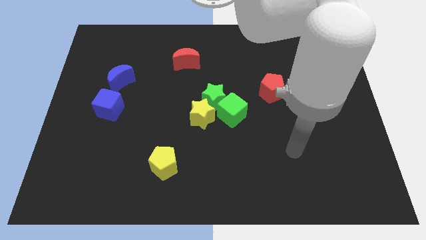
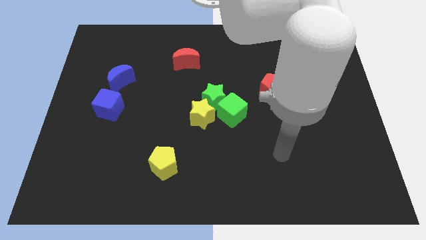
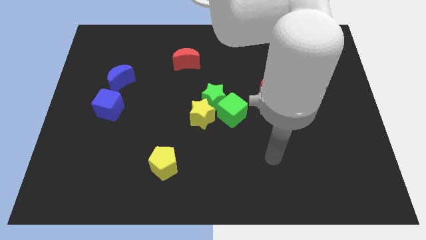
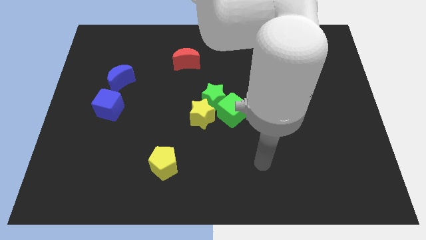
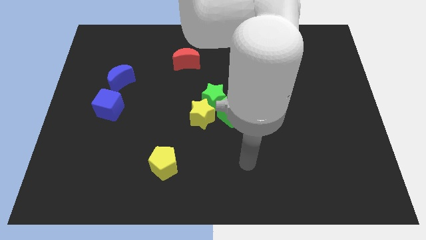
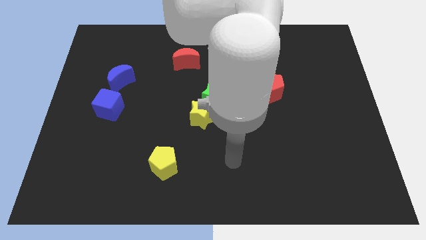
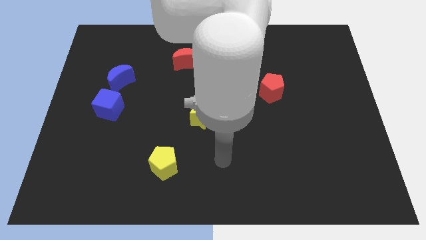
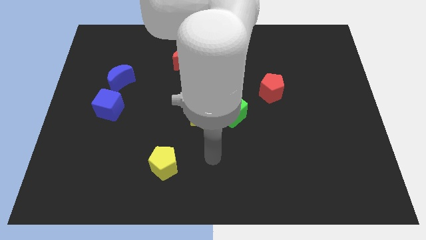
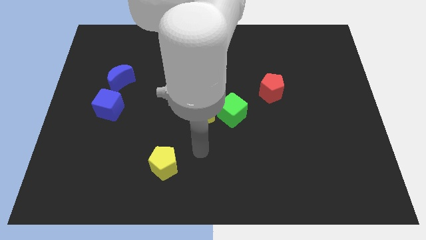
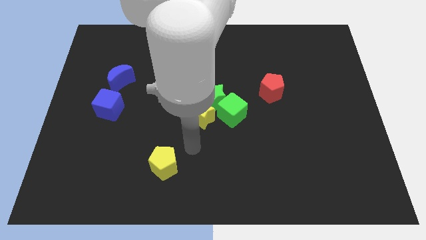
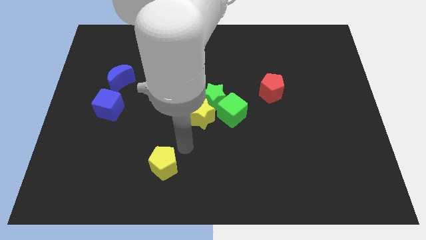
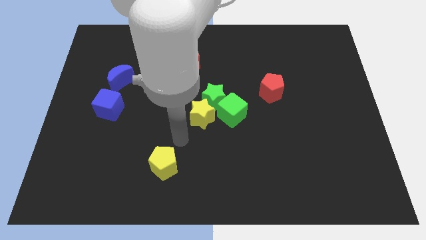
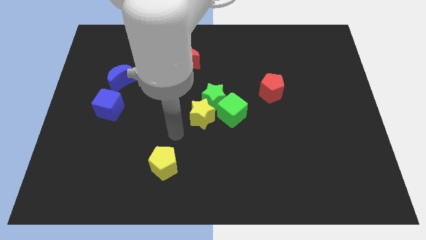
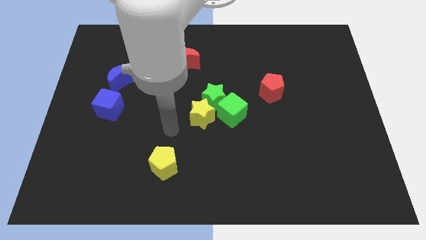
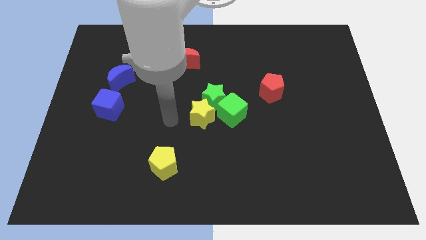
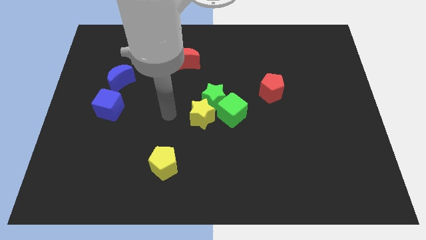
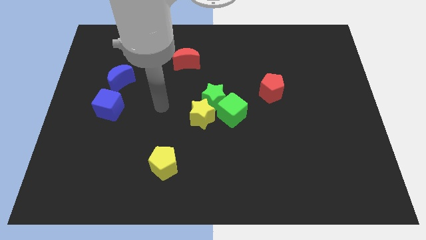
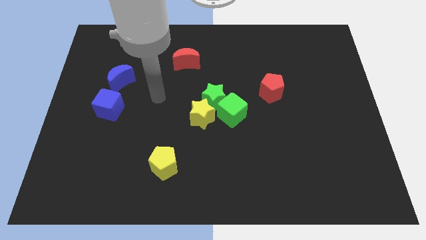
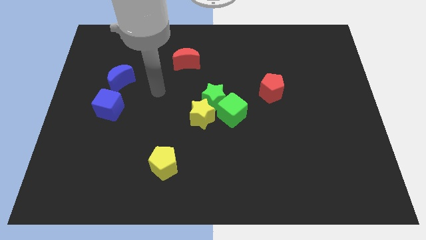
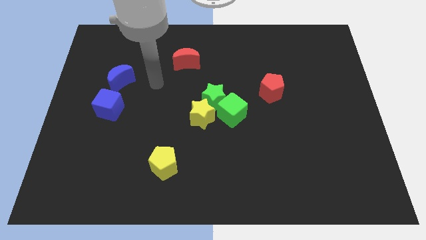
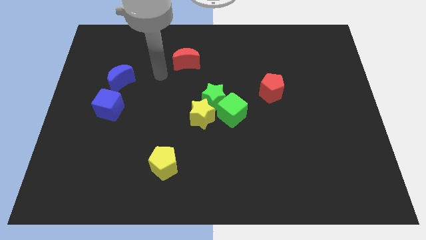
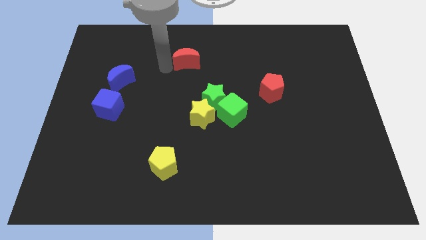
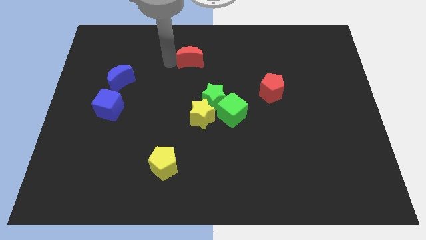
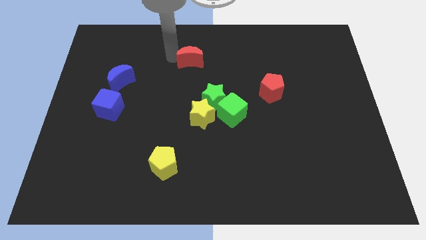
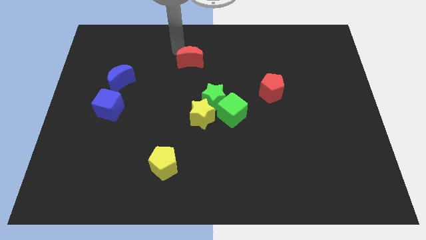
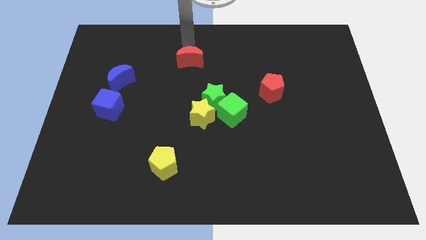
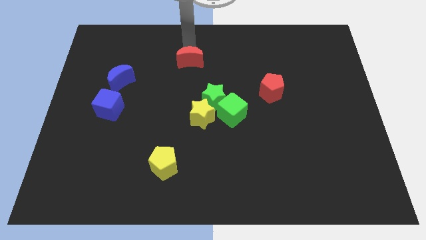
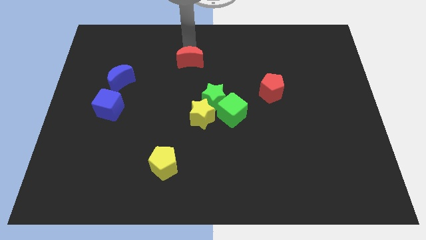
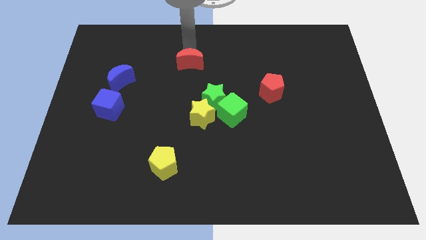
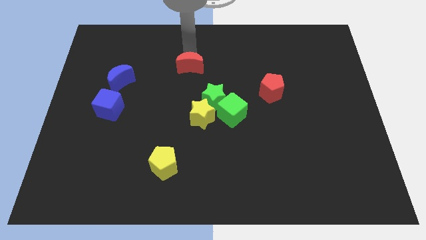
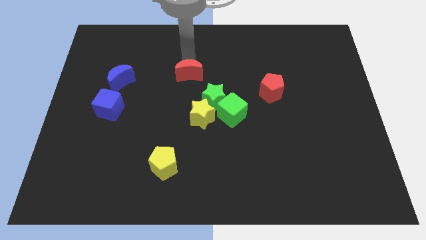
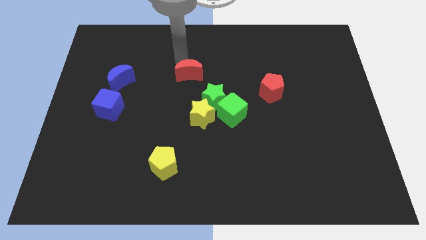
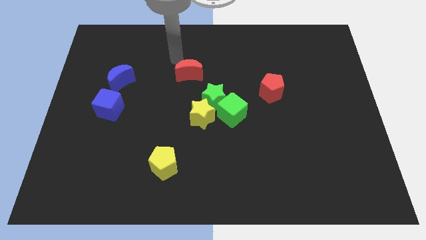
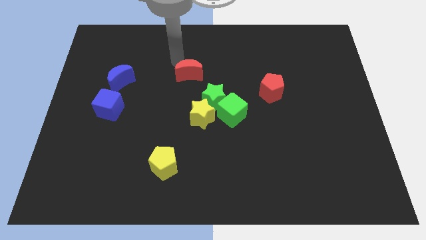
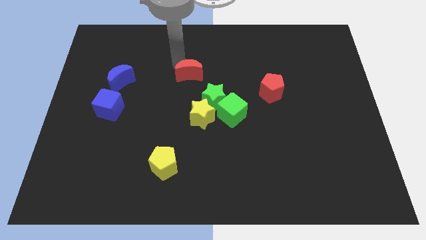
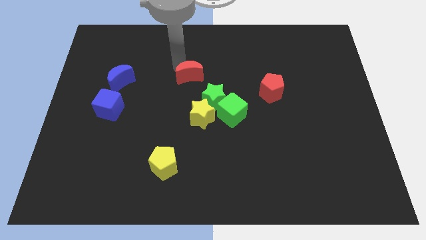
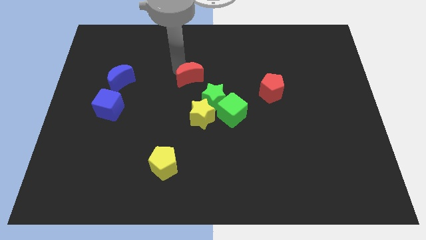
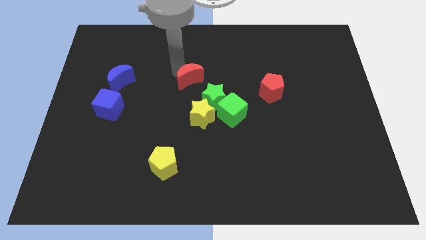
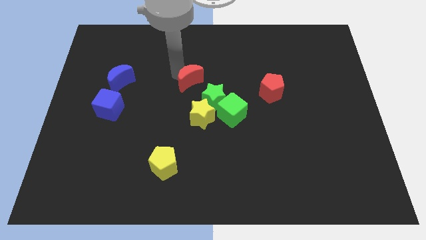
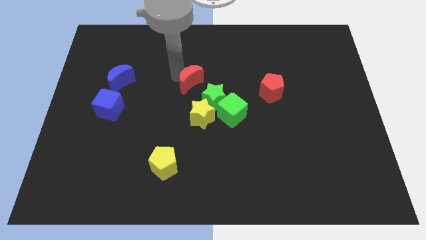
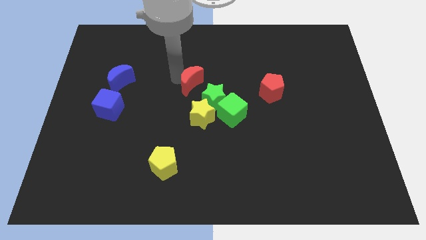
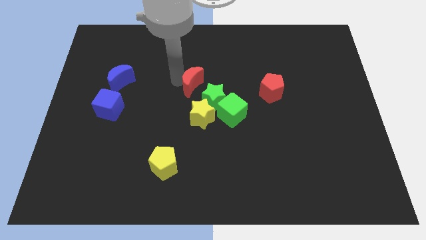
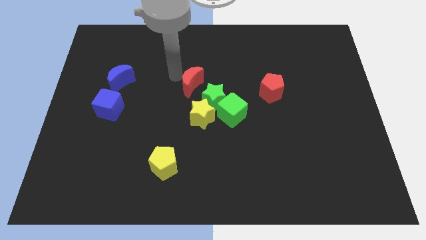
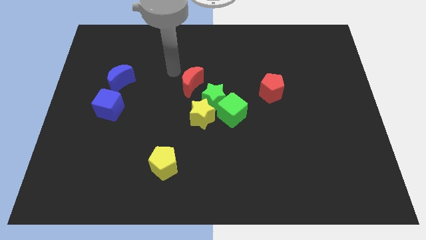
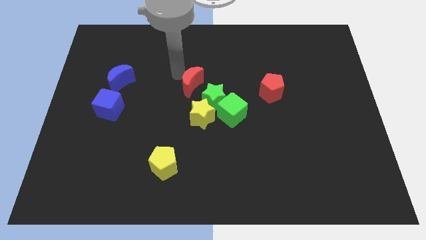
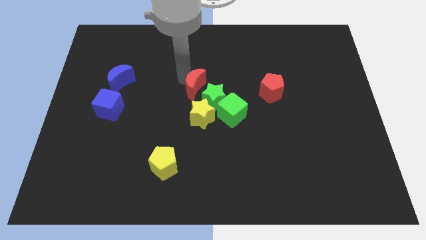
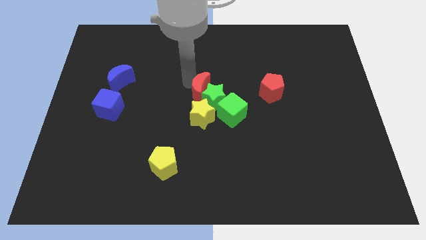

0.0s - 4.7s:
move the red moon close to the green star

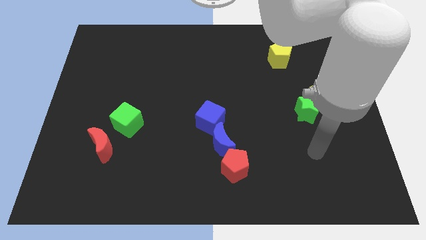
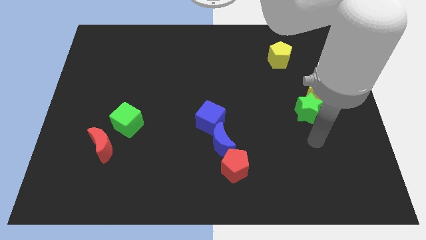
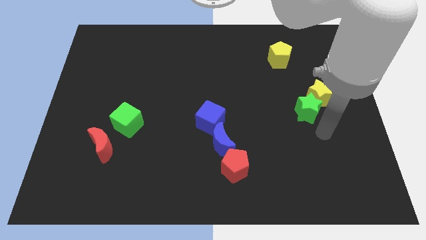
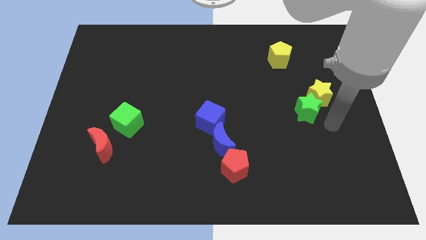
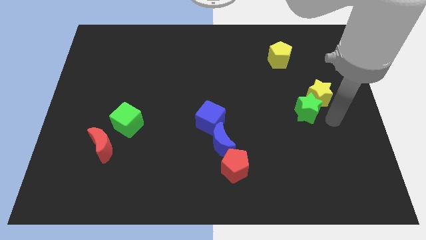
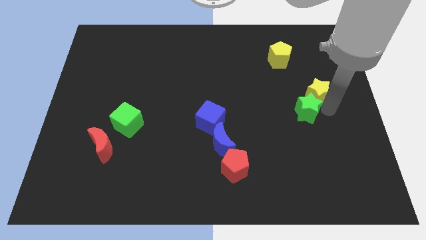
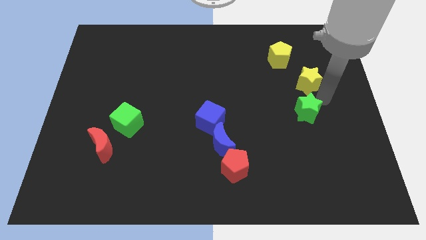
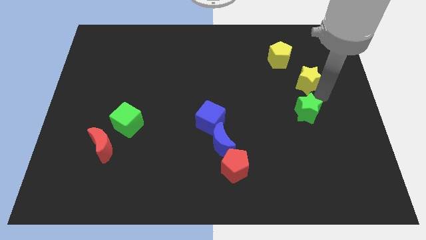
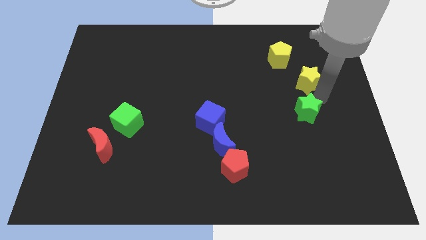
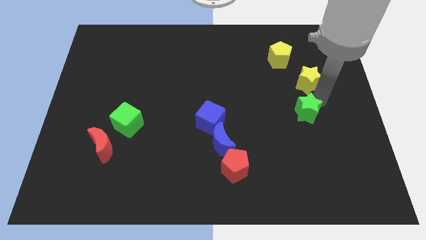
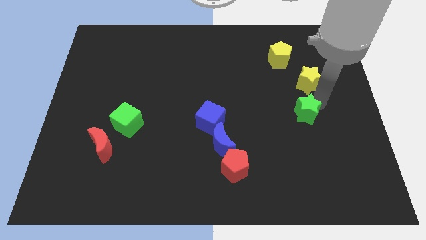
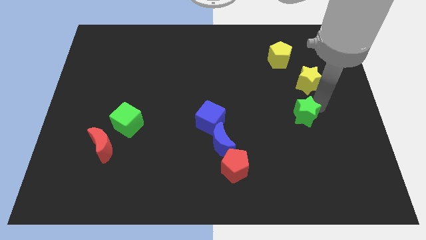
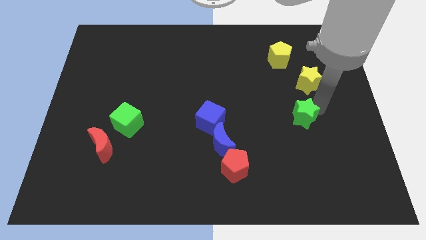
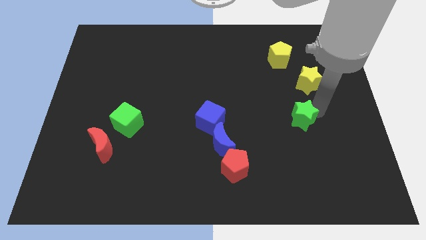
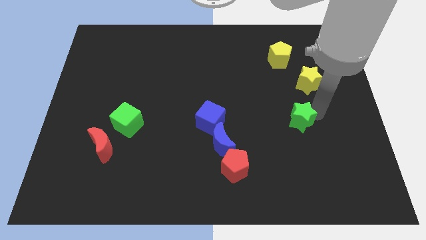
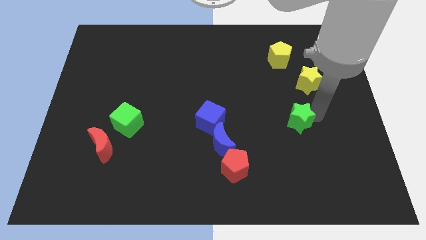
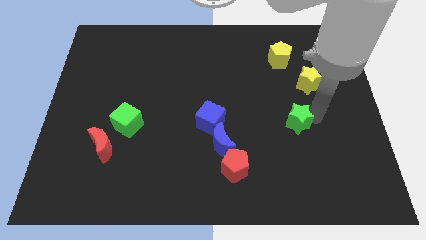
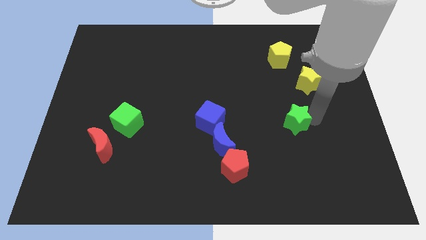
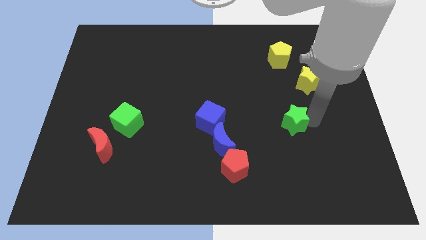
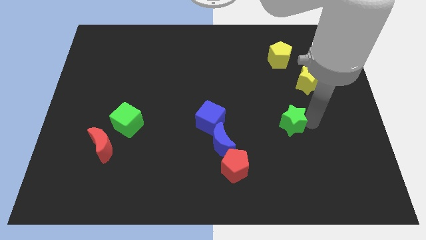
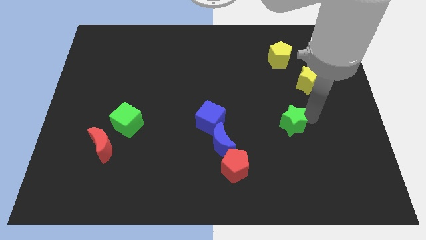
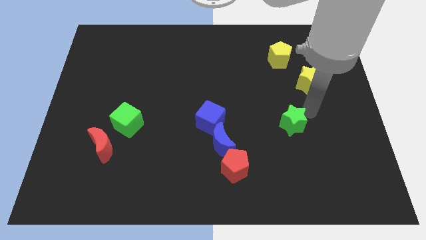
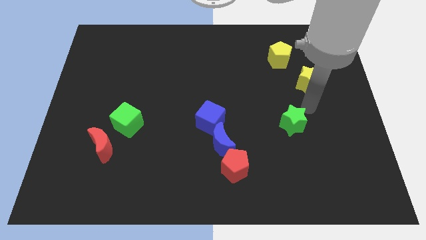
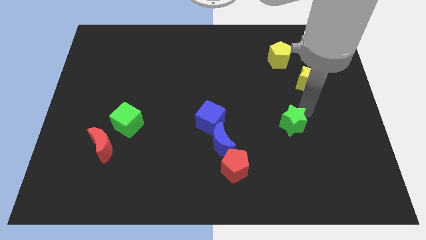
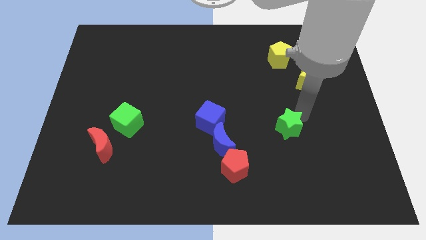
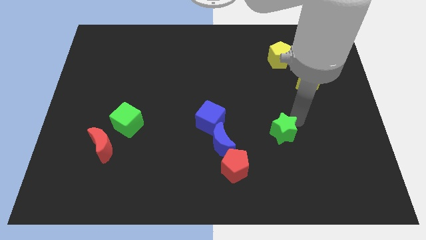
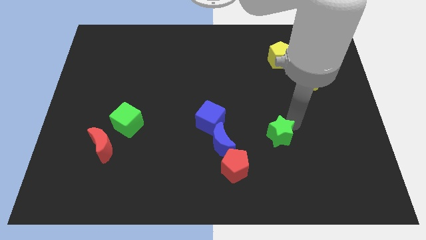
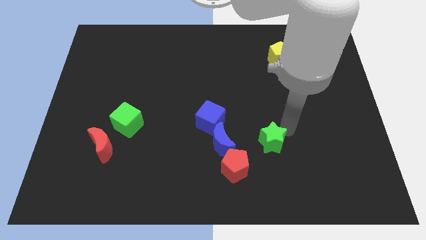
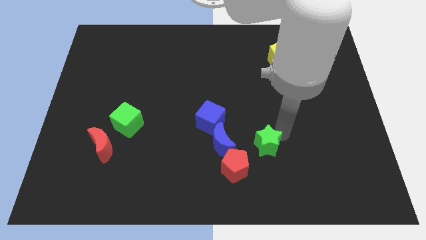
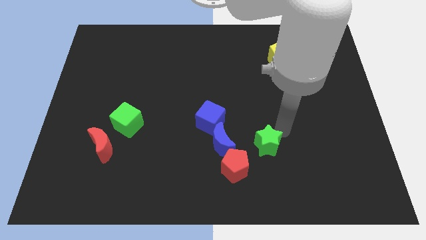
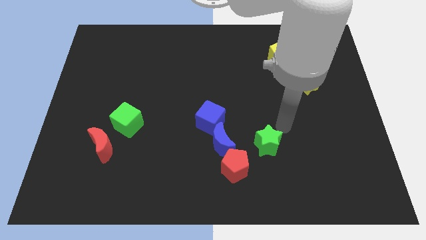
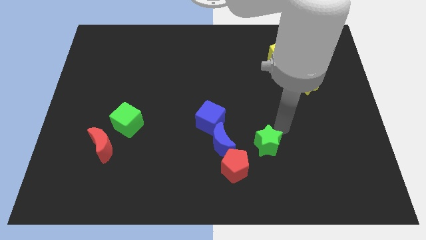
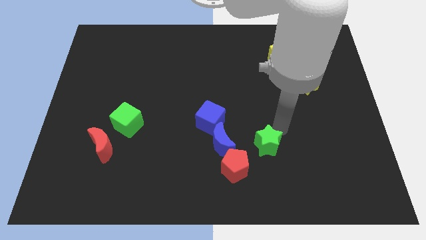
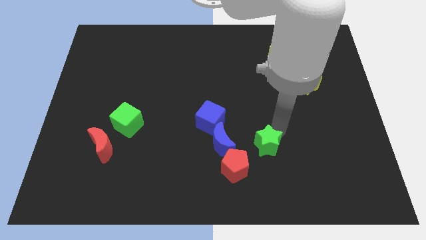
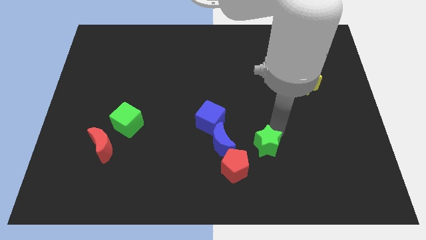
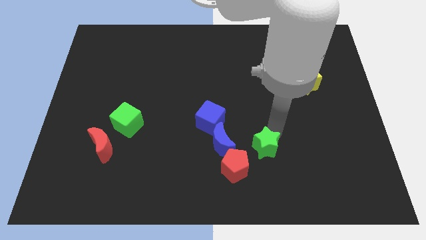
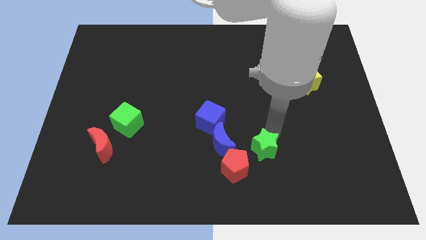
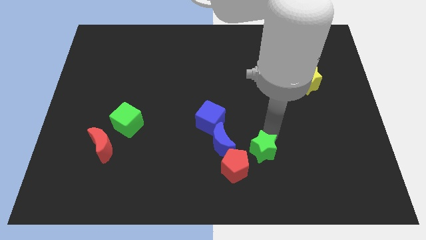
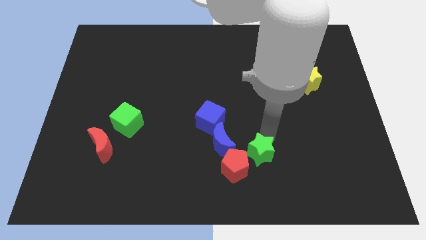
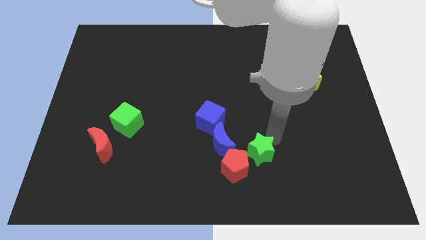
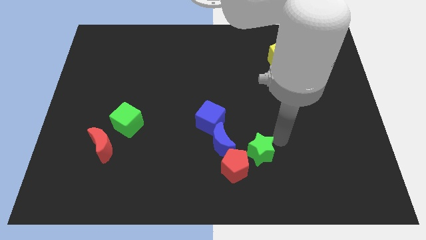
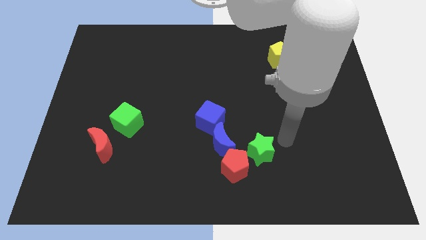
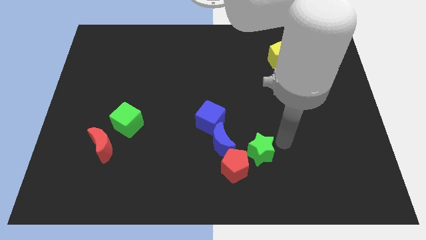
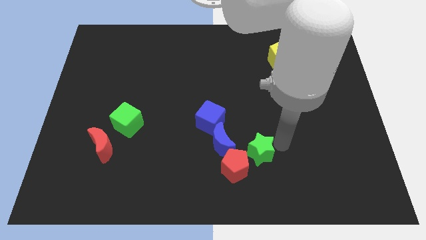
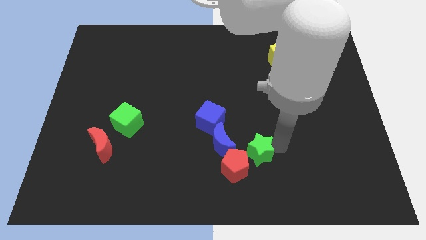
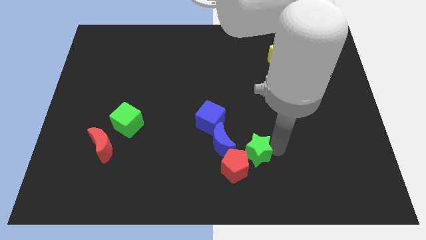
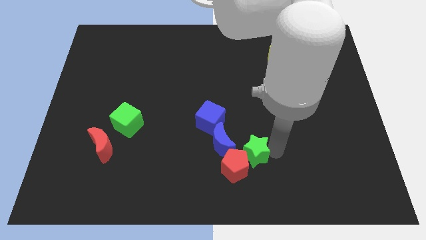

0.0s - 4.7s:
slide the green star next to the red pentagon
